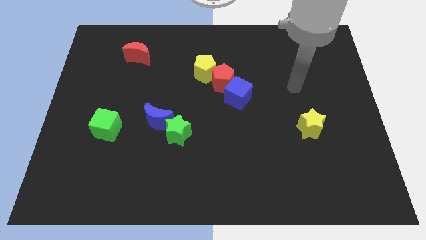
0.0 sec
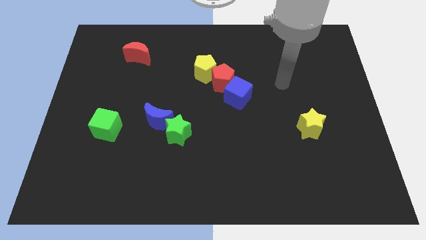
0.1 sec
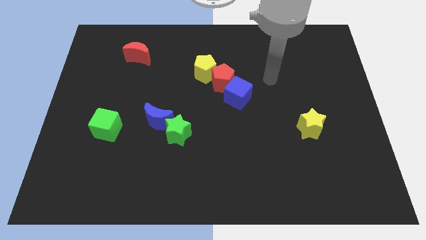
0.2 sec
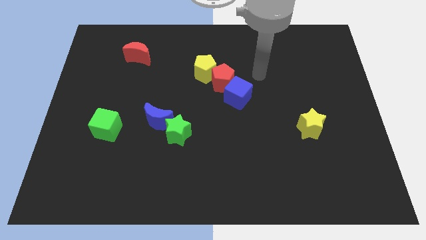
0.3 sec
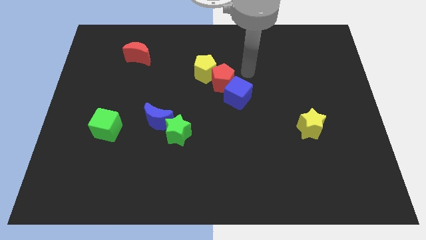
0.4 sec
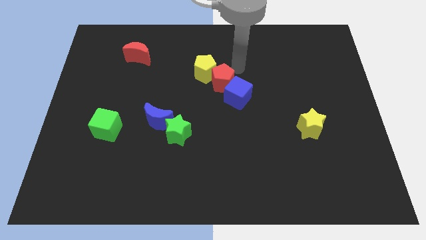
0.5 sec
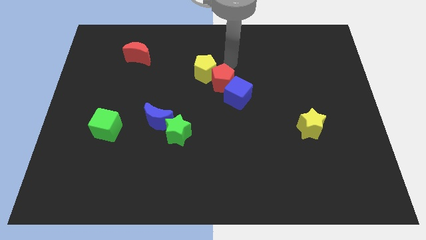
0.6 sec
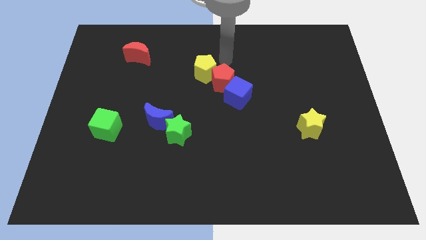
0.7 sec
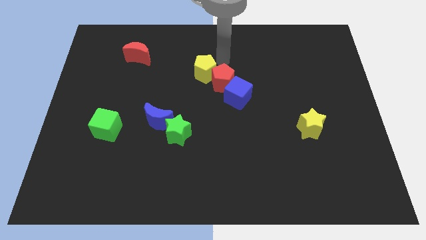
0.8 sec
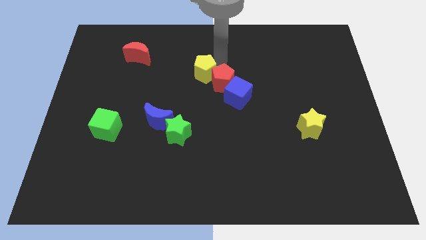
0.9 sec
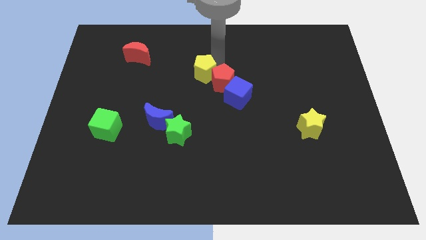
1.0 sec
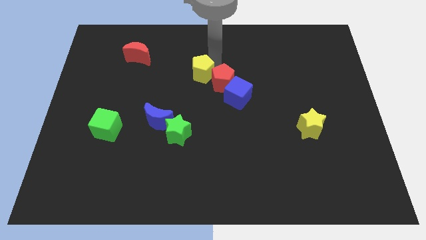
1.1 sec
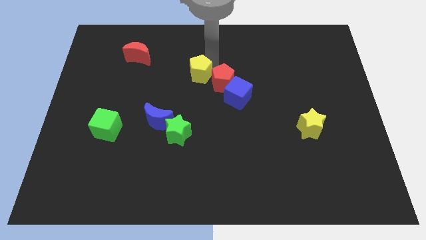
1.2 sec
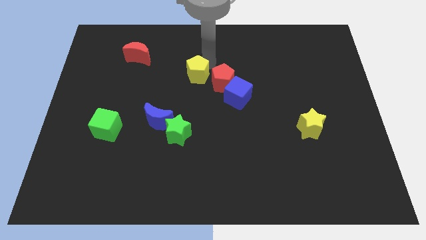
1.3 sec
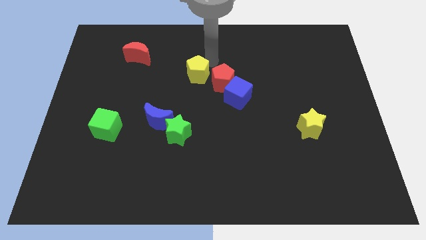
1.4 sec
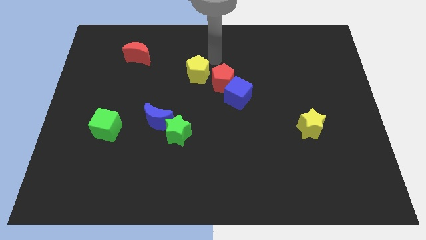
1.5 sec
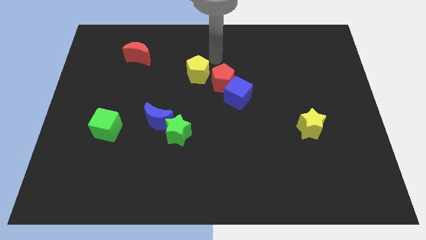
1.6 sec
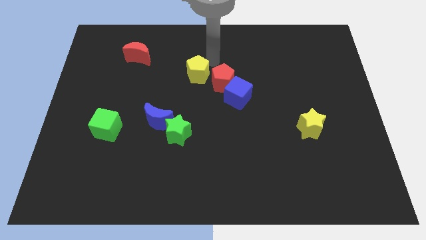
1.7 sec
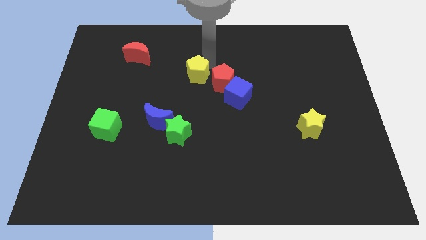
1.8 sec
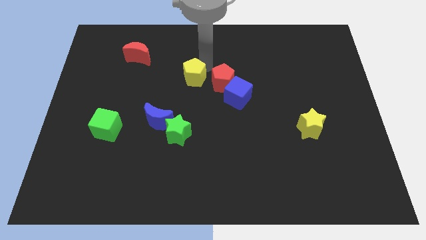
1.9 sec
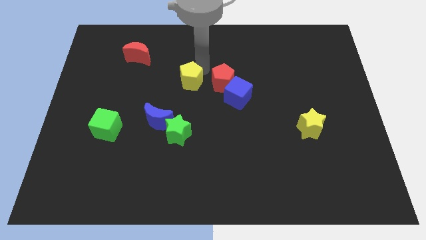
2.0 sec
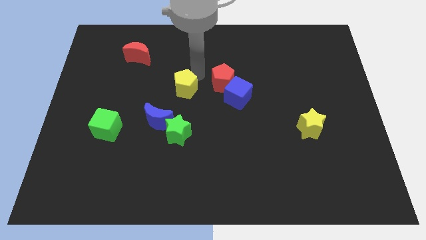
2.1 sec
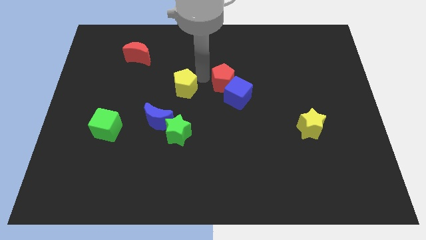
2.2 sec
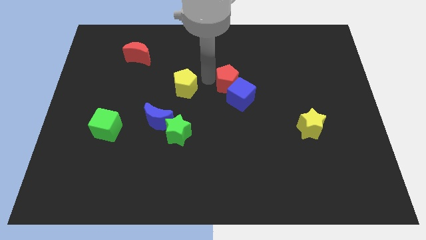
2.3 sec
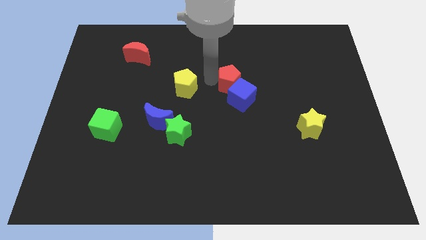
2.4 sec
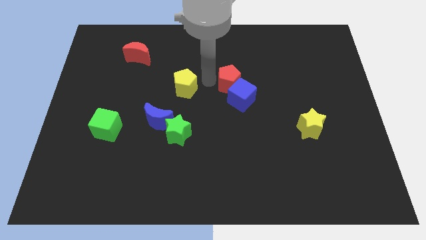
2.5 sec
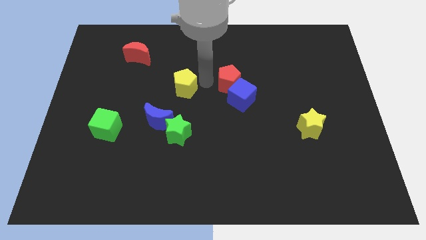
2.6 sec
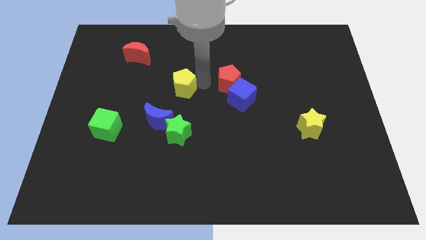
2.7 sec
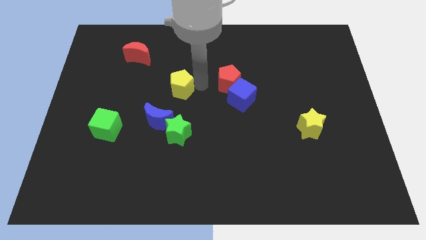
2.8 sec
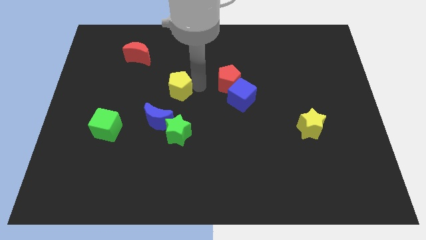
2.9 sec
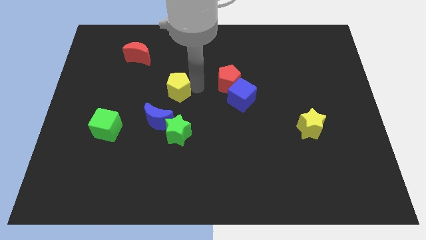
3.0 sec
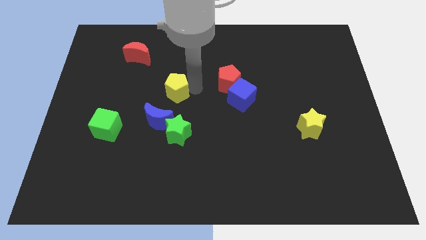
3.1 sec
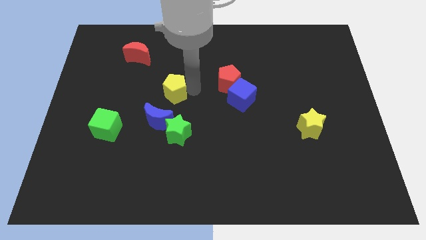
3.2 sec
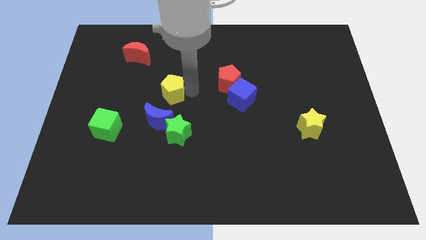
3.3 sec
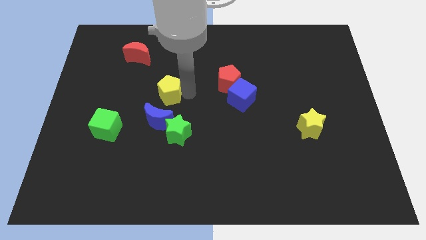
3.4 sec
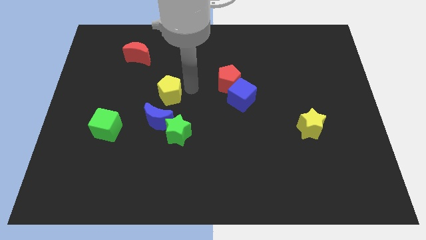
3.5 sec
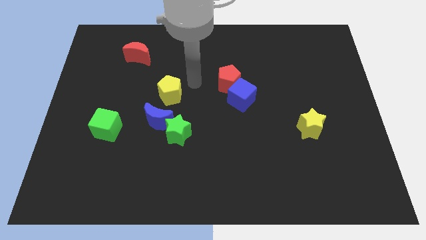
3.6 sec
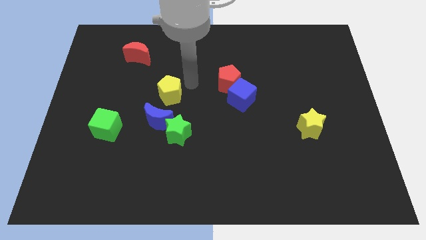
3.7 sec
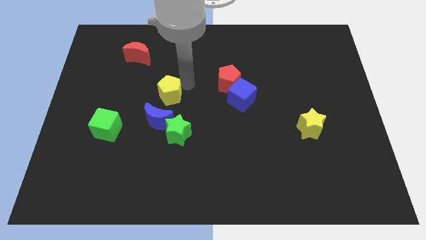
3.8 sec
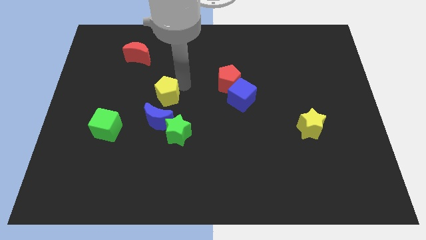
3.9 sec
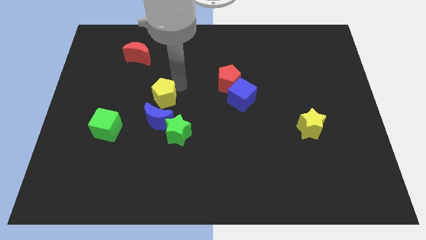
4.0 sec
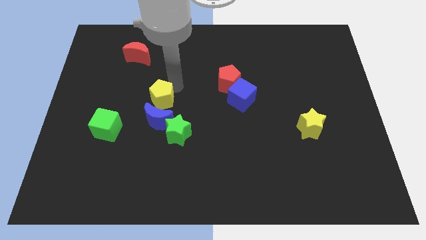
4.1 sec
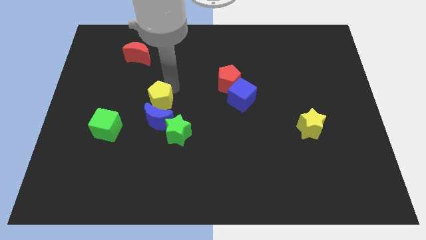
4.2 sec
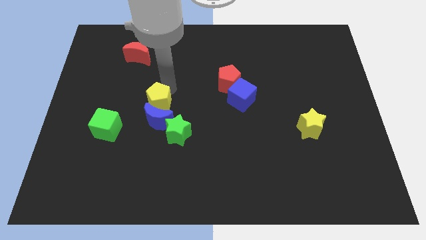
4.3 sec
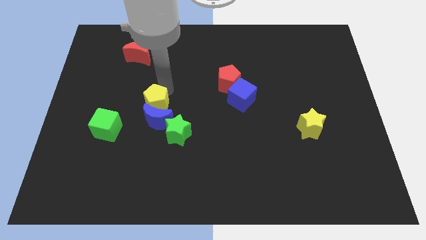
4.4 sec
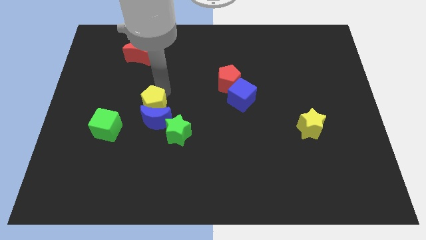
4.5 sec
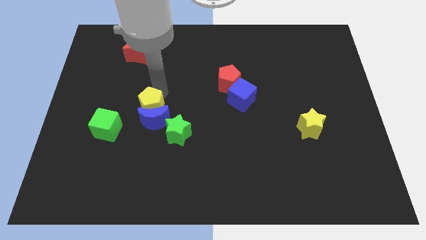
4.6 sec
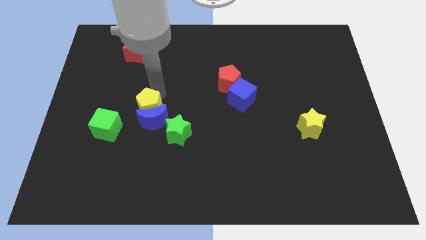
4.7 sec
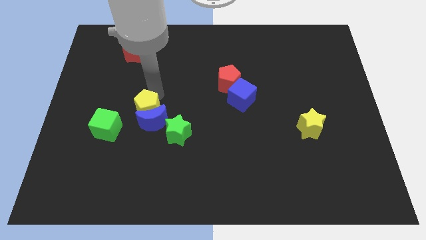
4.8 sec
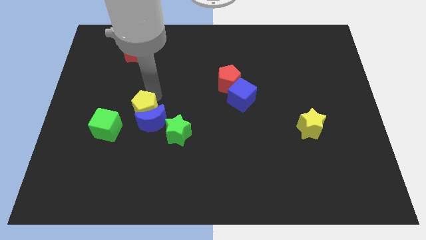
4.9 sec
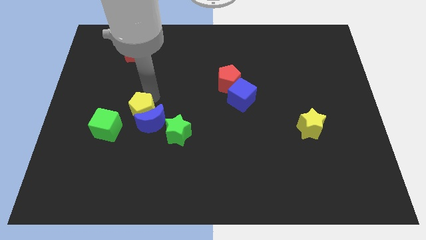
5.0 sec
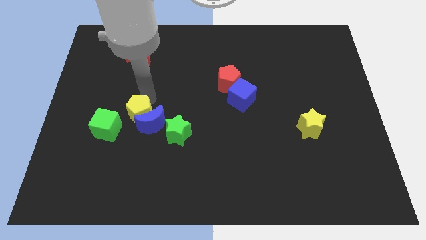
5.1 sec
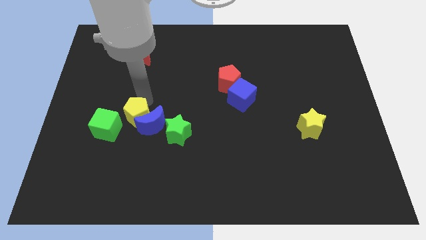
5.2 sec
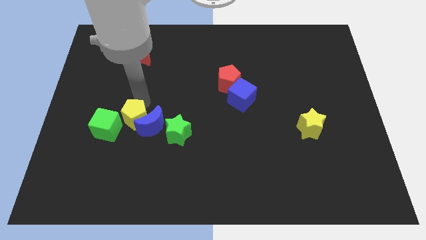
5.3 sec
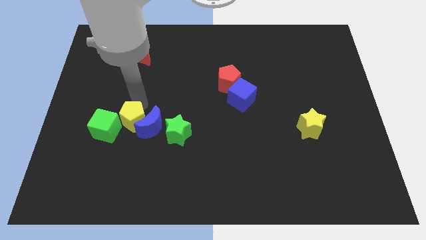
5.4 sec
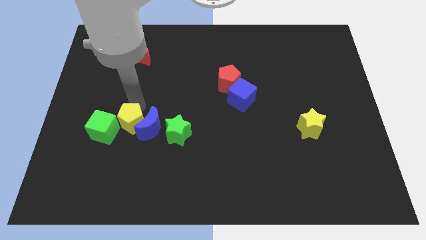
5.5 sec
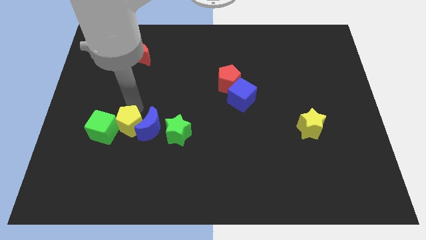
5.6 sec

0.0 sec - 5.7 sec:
push the yellow pentagon to the green cube

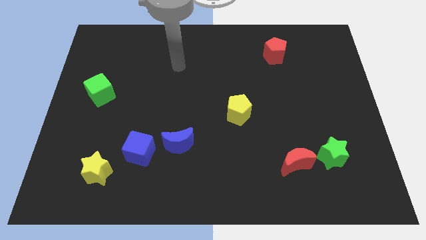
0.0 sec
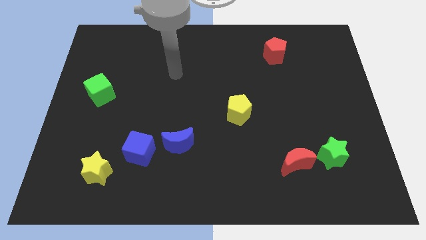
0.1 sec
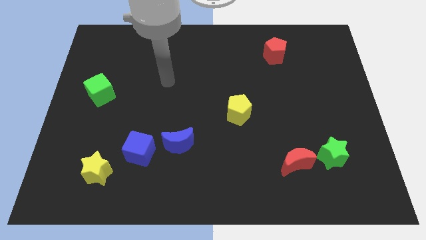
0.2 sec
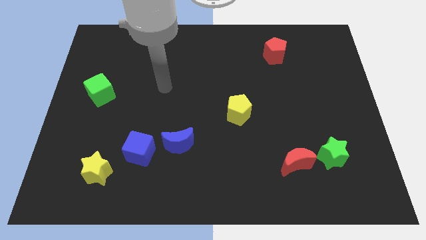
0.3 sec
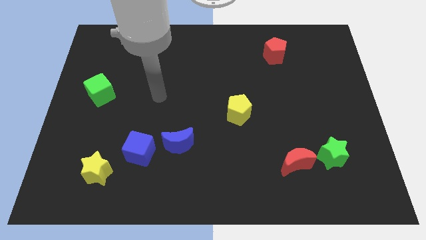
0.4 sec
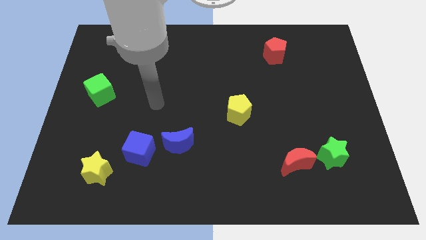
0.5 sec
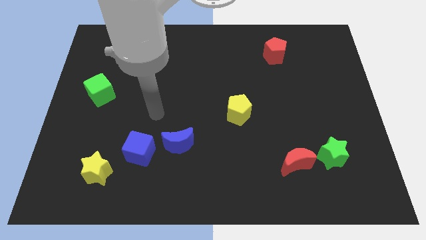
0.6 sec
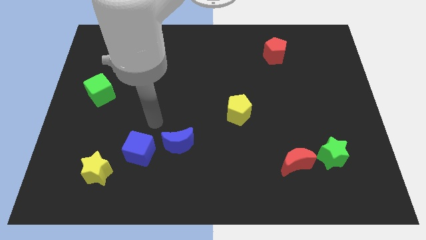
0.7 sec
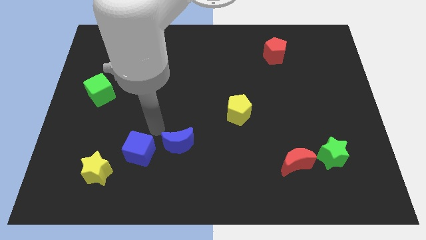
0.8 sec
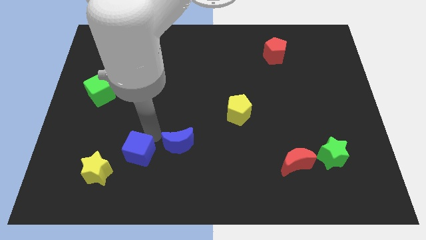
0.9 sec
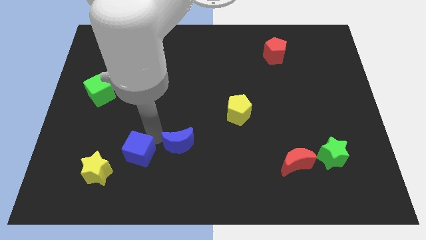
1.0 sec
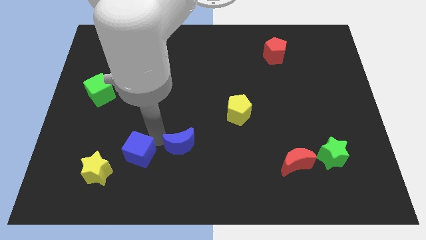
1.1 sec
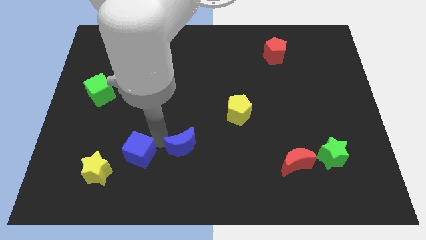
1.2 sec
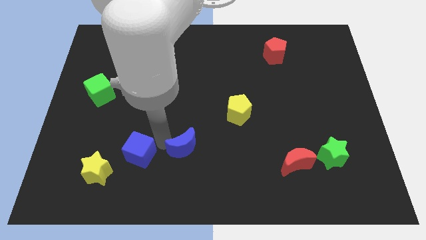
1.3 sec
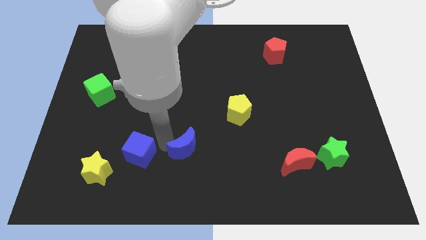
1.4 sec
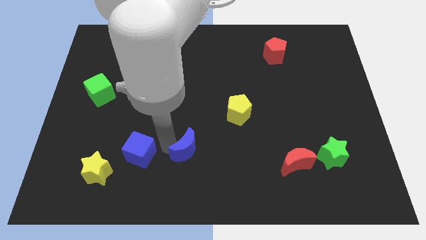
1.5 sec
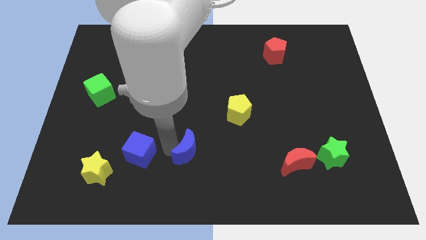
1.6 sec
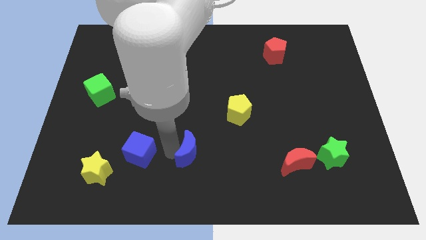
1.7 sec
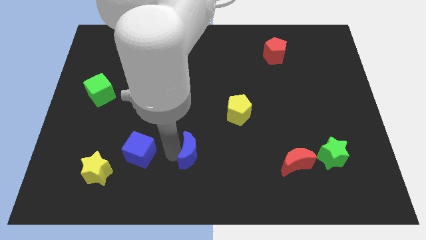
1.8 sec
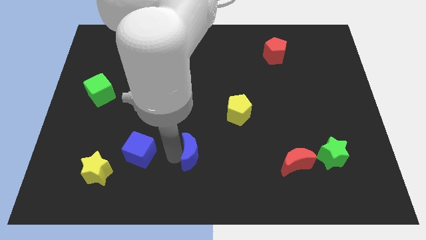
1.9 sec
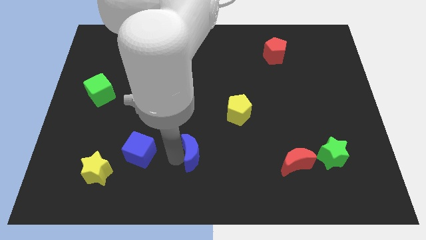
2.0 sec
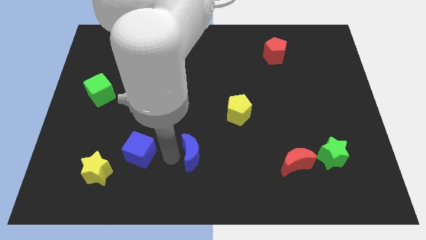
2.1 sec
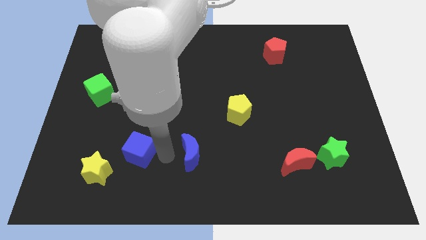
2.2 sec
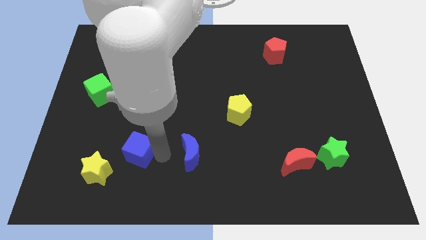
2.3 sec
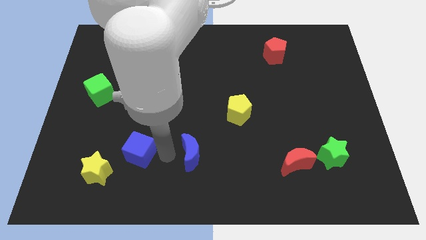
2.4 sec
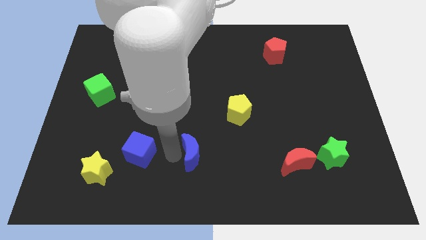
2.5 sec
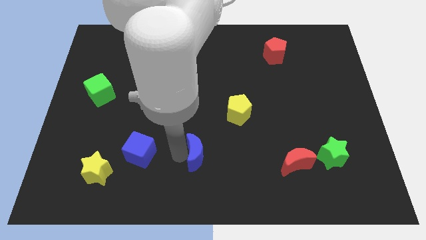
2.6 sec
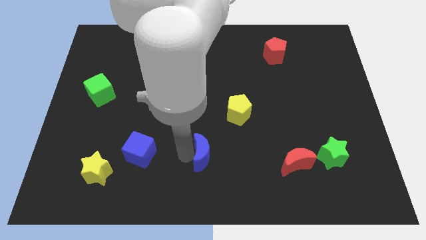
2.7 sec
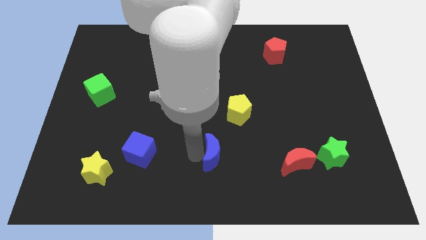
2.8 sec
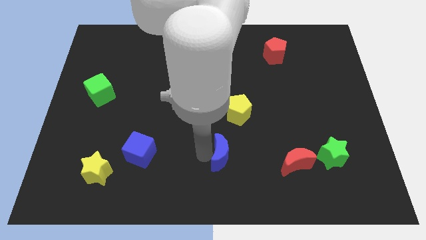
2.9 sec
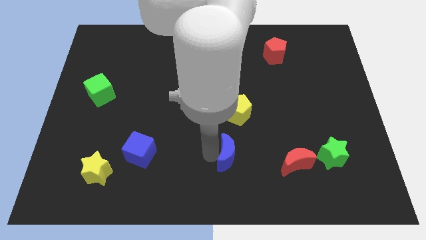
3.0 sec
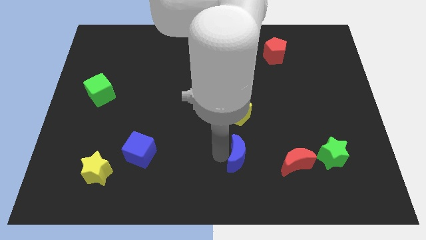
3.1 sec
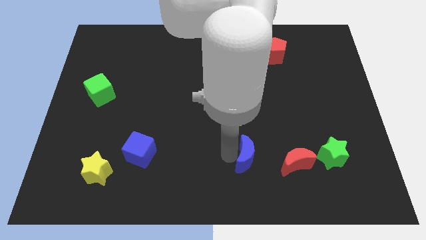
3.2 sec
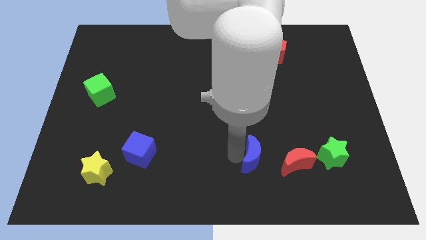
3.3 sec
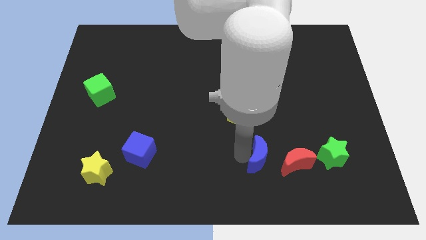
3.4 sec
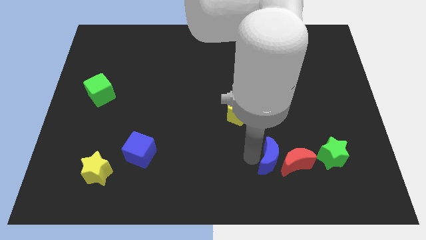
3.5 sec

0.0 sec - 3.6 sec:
put the blue moon to the red moon
